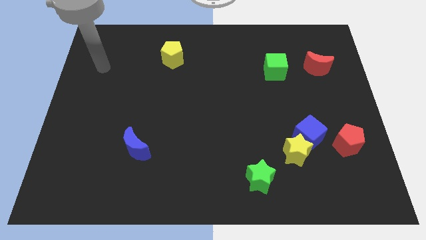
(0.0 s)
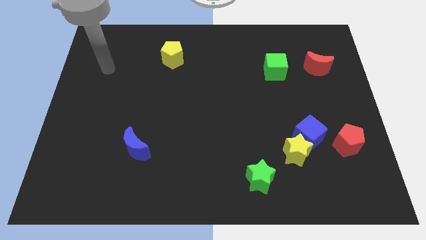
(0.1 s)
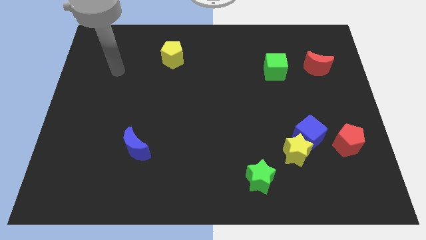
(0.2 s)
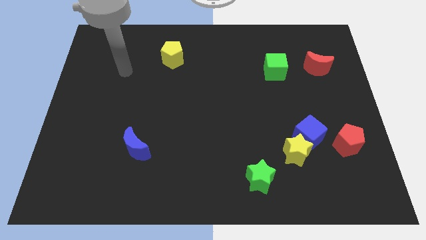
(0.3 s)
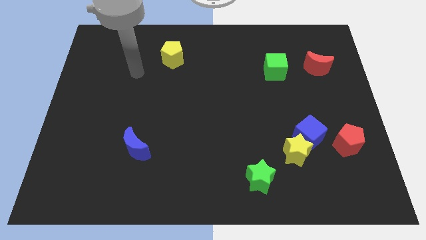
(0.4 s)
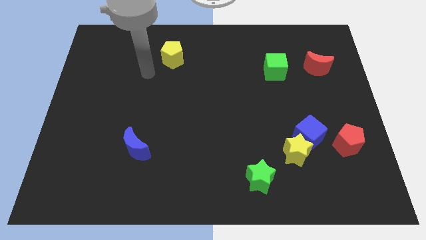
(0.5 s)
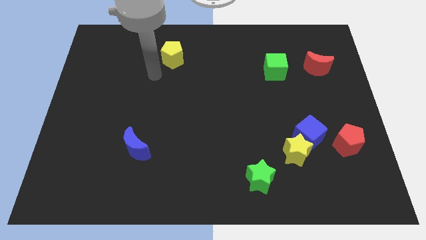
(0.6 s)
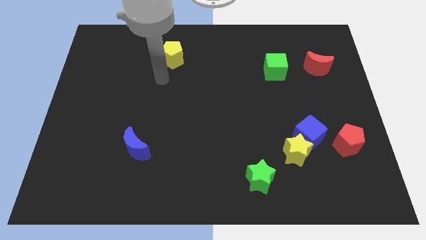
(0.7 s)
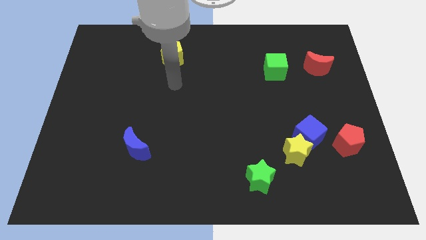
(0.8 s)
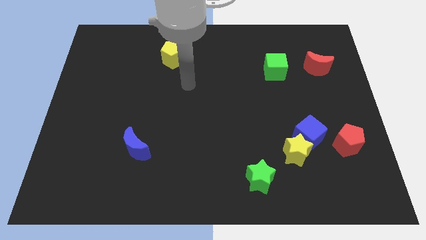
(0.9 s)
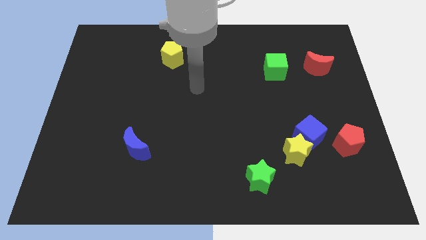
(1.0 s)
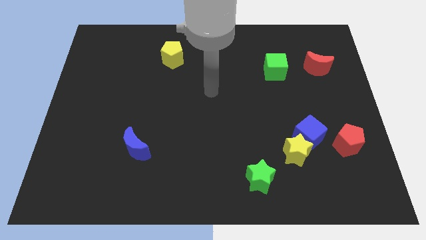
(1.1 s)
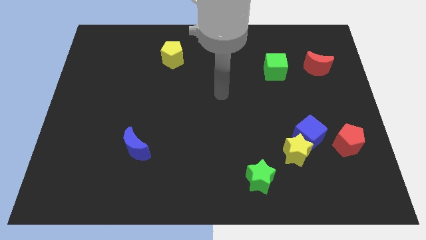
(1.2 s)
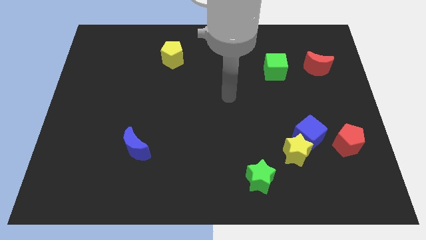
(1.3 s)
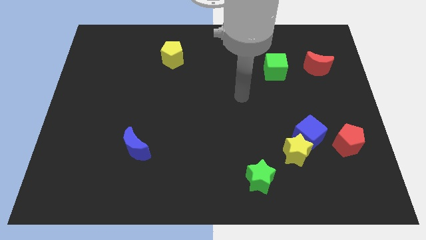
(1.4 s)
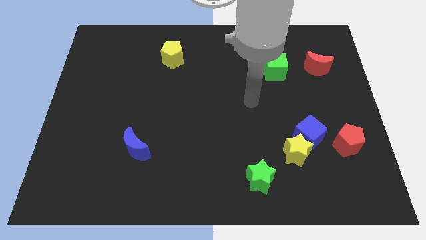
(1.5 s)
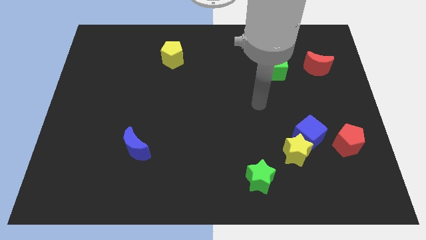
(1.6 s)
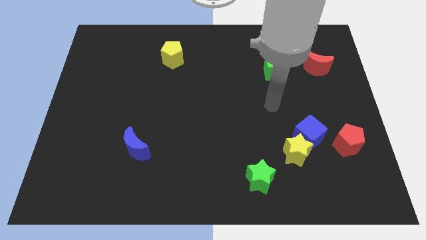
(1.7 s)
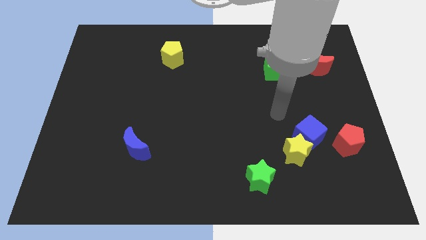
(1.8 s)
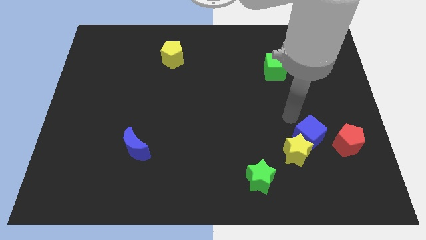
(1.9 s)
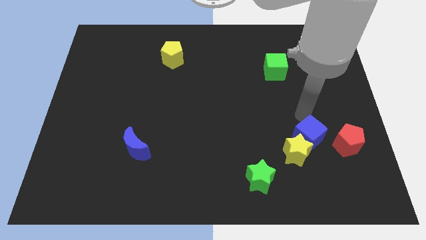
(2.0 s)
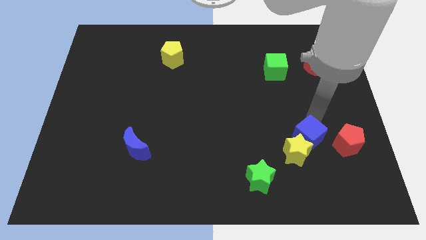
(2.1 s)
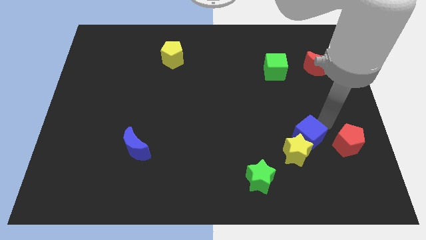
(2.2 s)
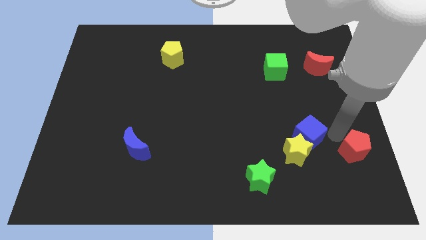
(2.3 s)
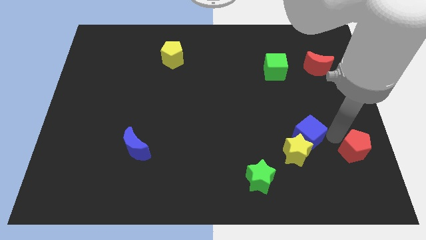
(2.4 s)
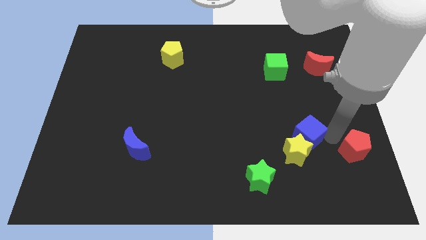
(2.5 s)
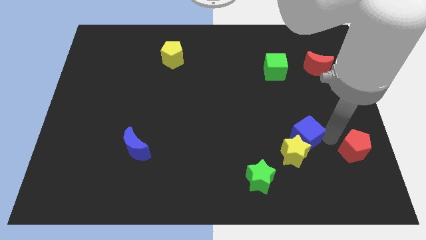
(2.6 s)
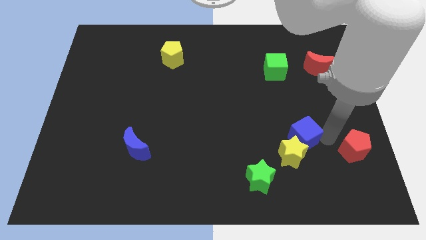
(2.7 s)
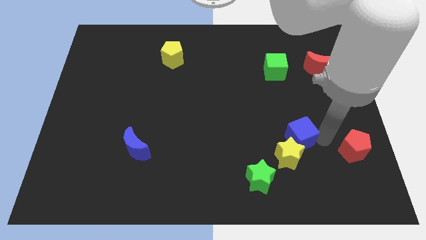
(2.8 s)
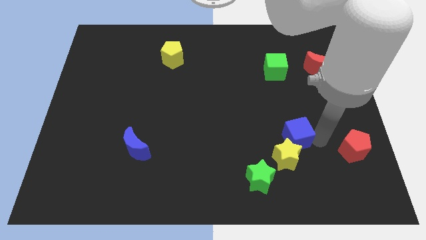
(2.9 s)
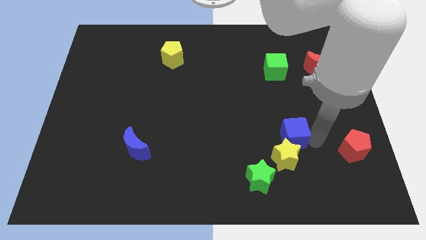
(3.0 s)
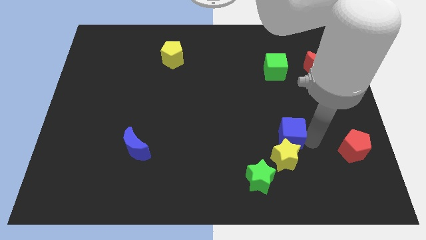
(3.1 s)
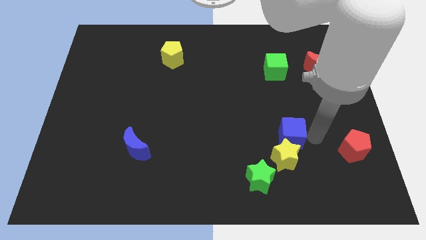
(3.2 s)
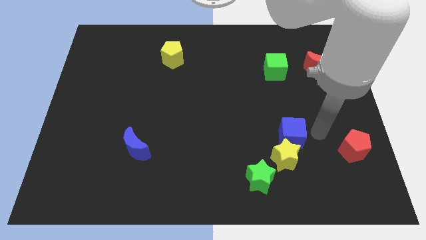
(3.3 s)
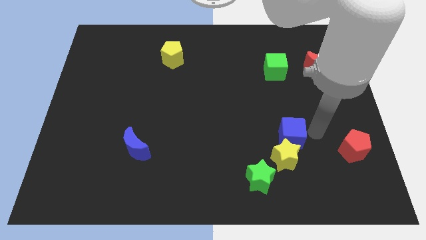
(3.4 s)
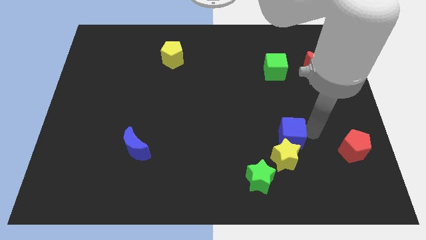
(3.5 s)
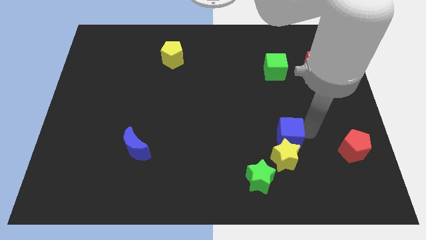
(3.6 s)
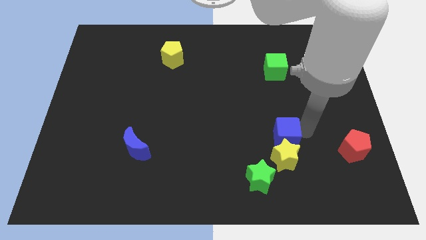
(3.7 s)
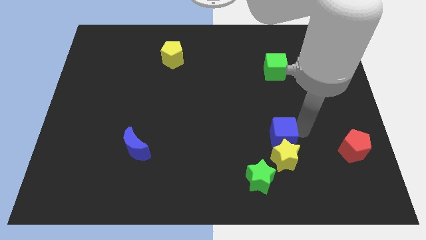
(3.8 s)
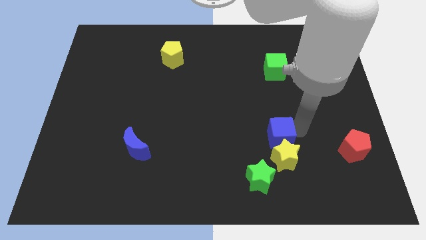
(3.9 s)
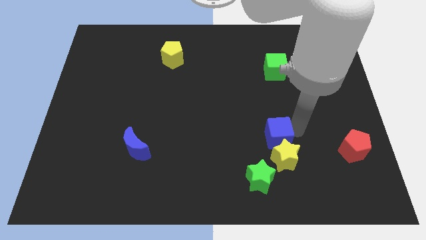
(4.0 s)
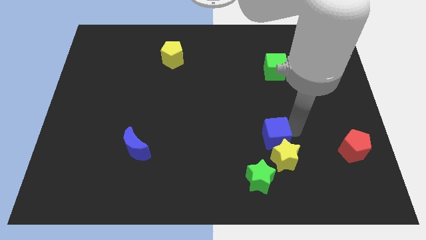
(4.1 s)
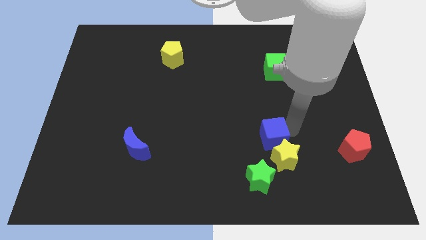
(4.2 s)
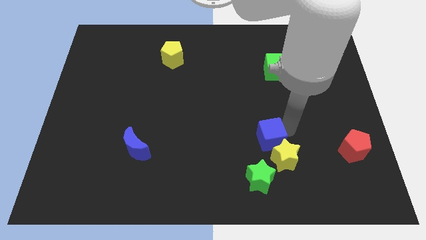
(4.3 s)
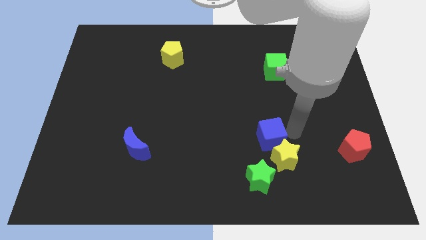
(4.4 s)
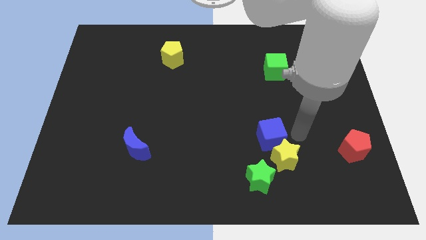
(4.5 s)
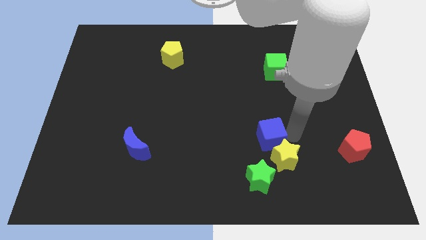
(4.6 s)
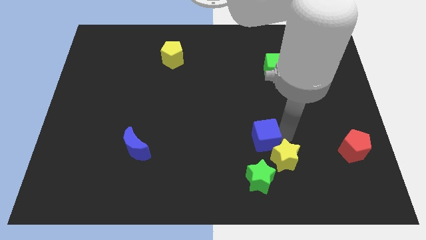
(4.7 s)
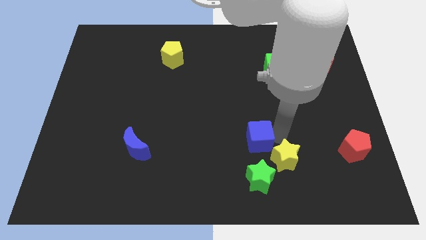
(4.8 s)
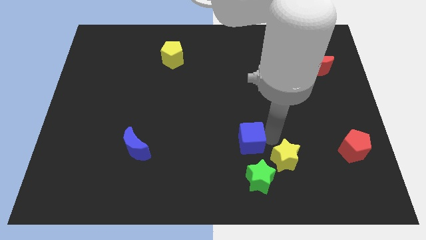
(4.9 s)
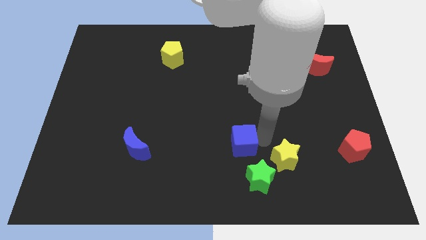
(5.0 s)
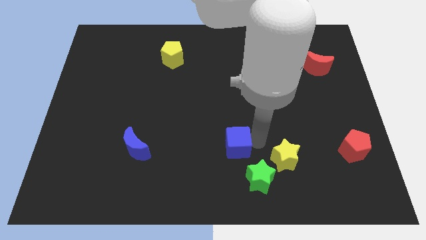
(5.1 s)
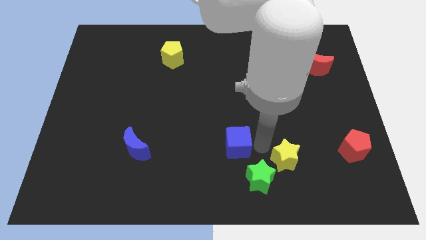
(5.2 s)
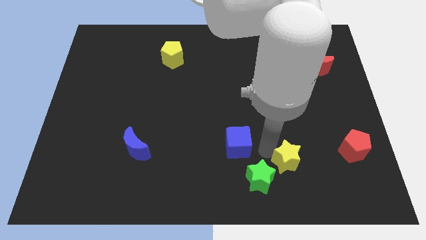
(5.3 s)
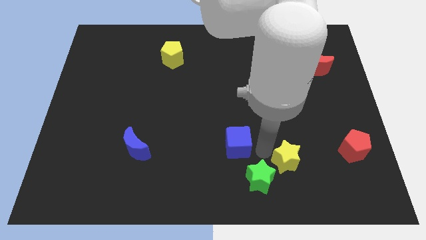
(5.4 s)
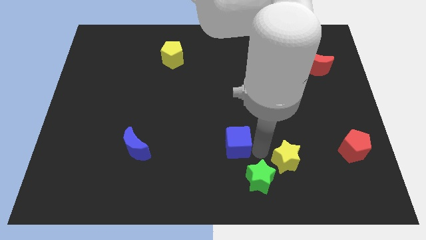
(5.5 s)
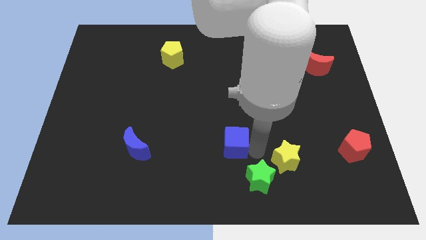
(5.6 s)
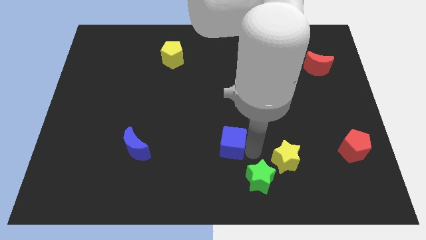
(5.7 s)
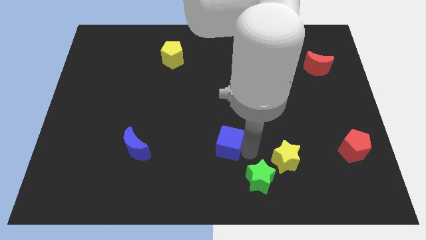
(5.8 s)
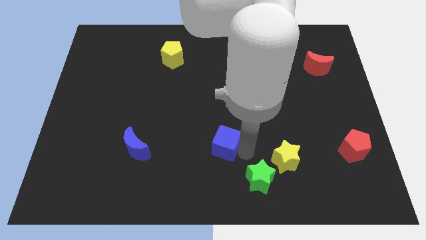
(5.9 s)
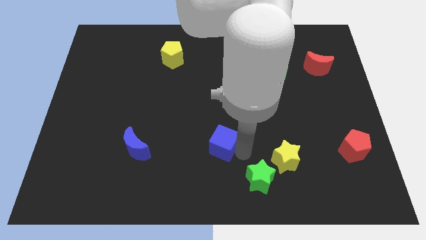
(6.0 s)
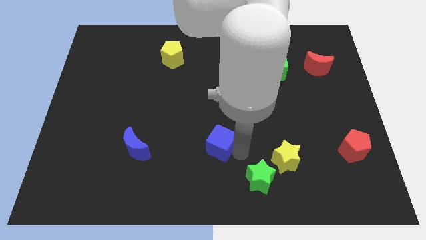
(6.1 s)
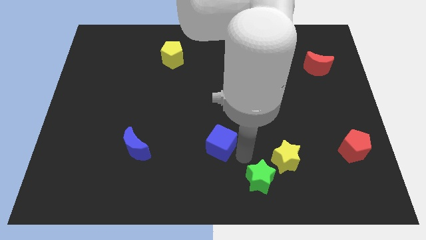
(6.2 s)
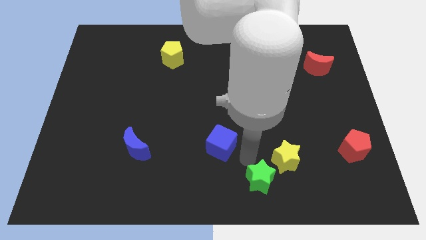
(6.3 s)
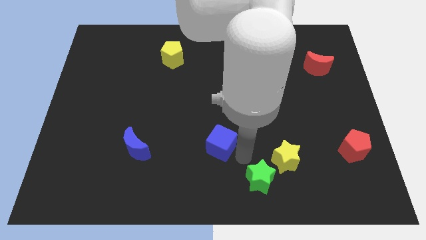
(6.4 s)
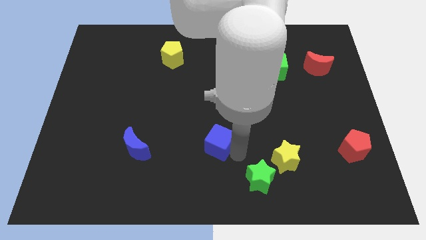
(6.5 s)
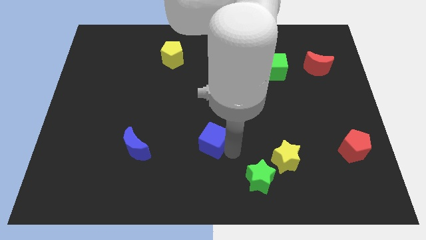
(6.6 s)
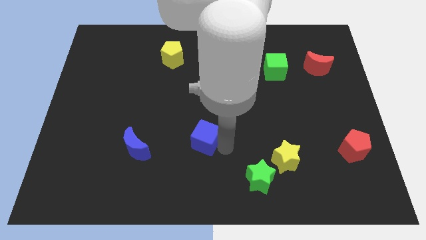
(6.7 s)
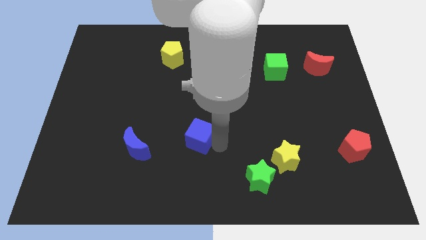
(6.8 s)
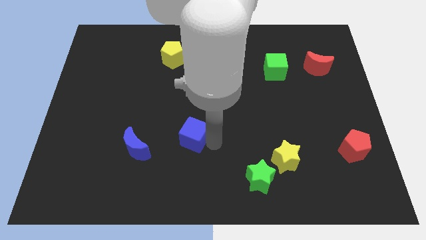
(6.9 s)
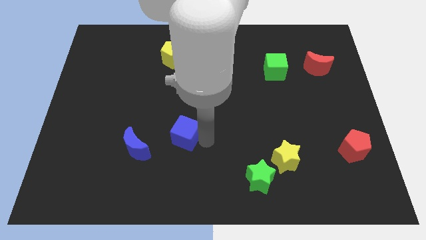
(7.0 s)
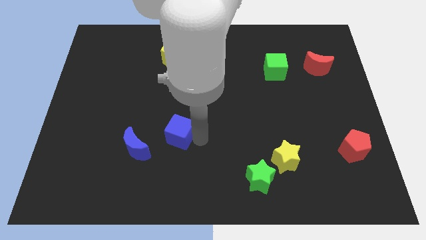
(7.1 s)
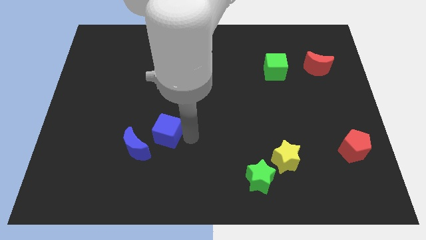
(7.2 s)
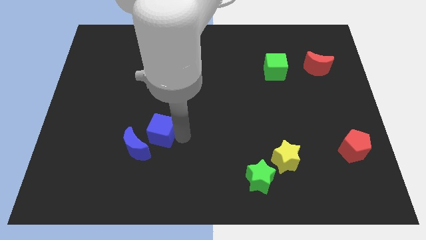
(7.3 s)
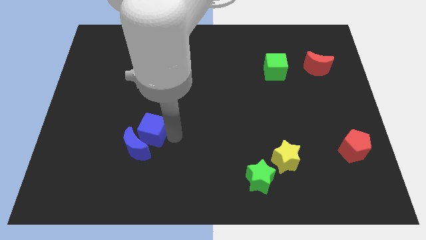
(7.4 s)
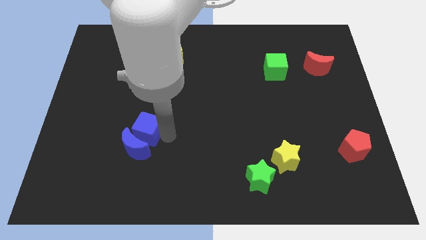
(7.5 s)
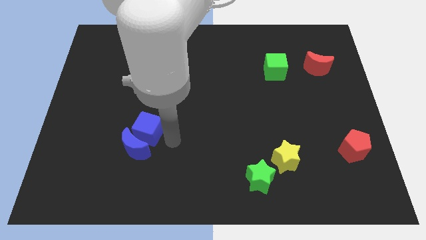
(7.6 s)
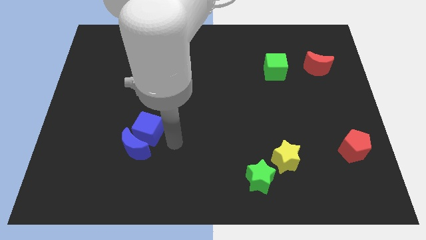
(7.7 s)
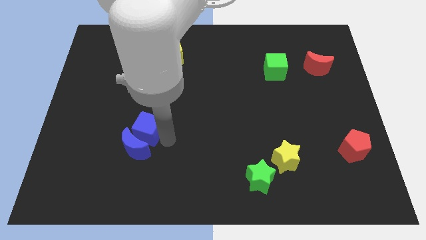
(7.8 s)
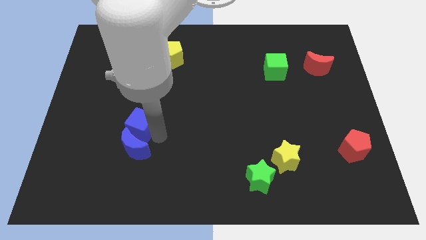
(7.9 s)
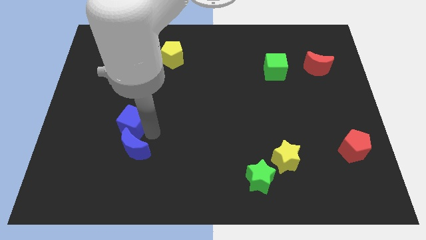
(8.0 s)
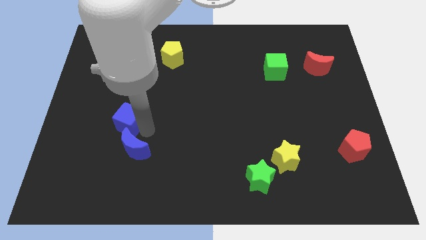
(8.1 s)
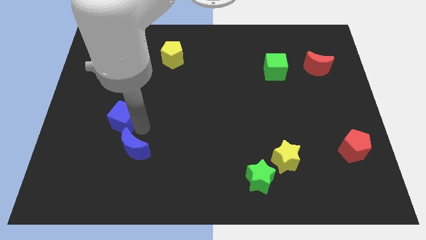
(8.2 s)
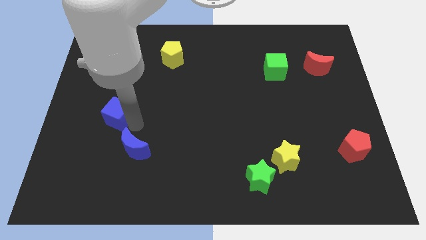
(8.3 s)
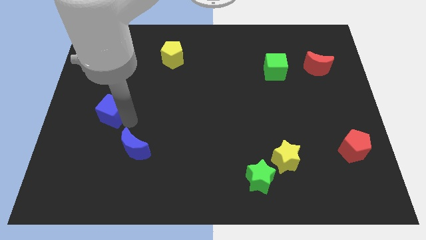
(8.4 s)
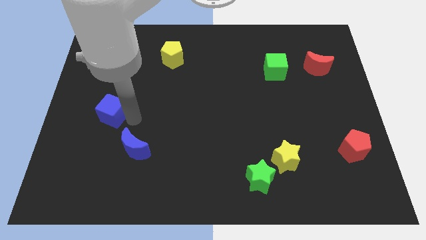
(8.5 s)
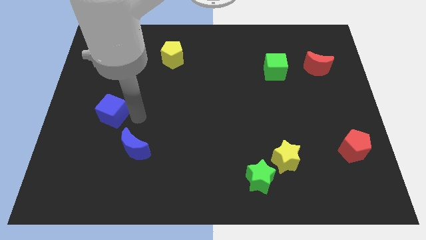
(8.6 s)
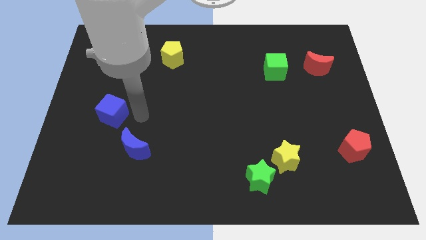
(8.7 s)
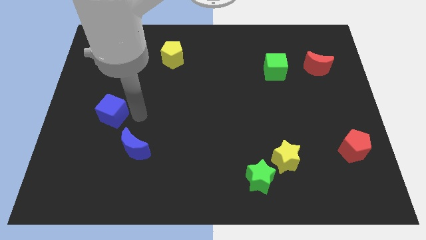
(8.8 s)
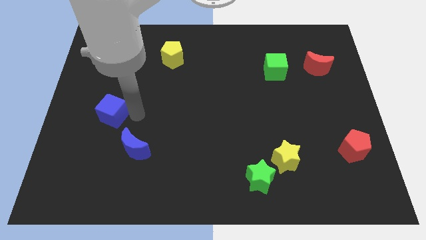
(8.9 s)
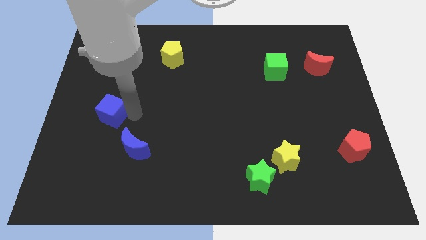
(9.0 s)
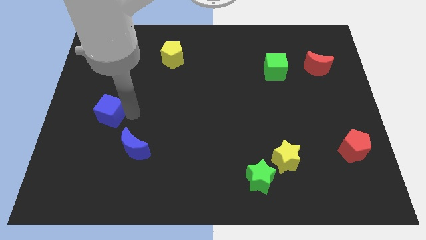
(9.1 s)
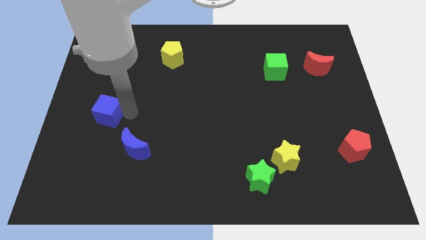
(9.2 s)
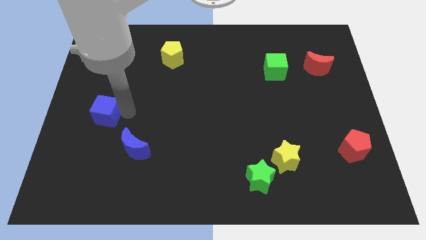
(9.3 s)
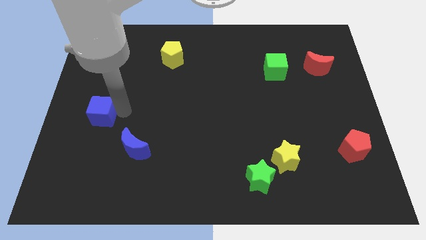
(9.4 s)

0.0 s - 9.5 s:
slide the blue cube to the left side
